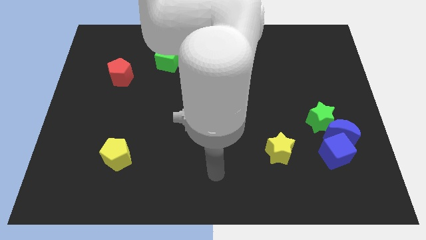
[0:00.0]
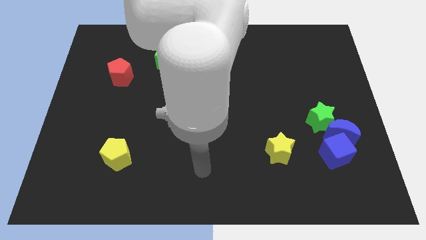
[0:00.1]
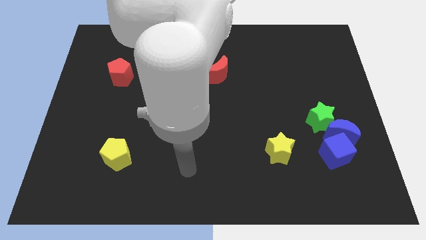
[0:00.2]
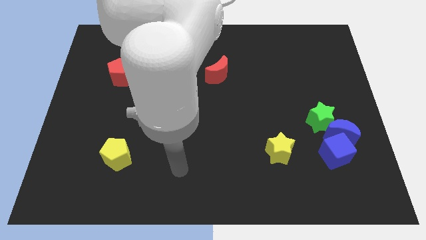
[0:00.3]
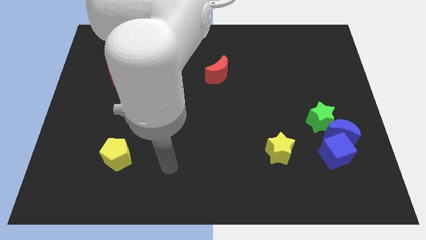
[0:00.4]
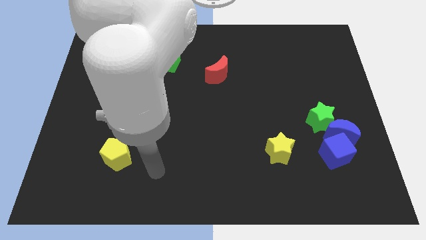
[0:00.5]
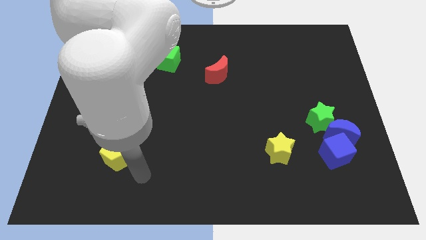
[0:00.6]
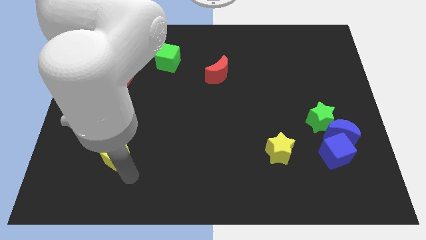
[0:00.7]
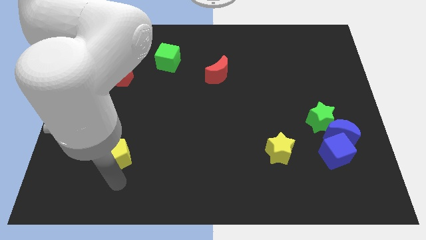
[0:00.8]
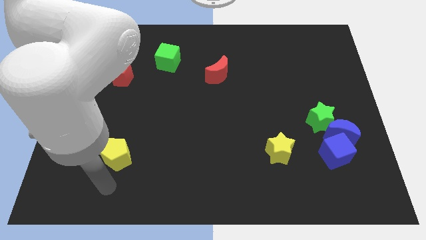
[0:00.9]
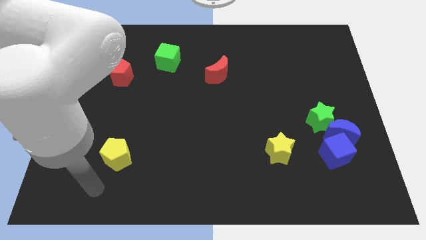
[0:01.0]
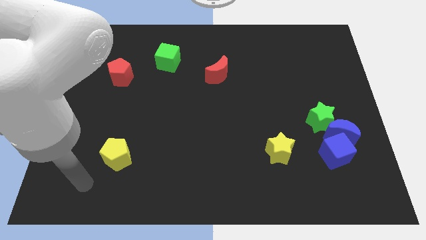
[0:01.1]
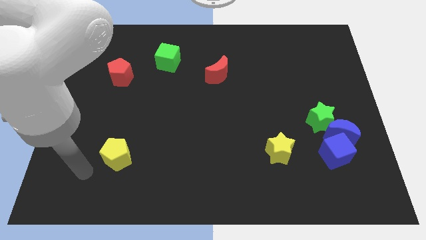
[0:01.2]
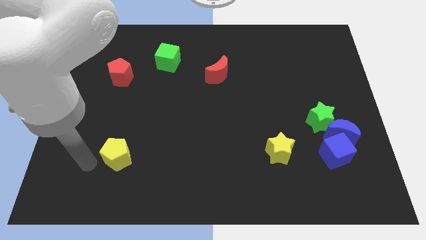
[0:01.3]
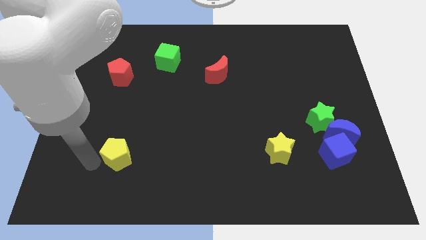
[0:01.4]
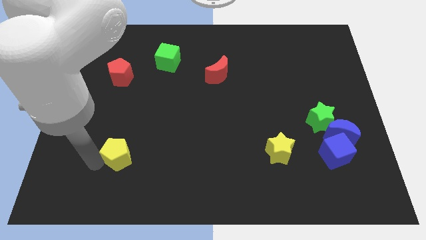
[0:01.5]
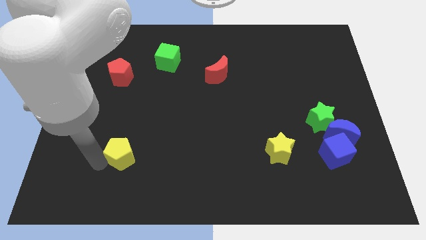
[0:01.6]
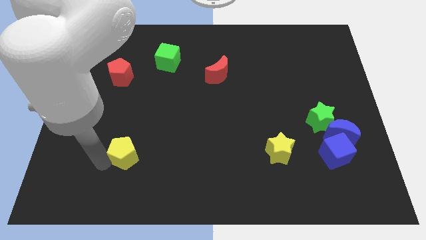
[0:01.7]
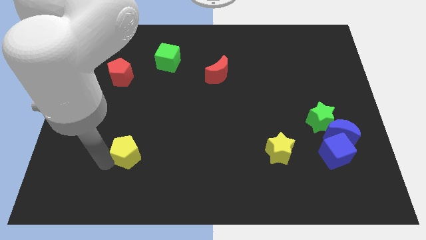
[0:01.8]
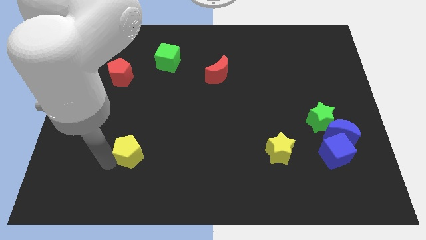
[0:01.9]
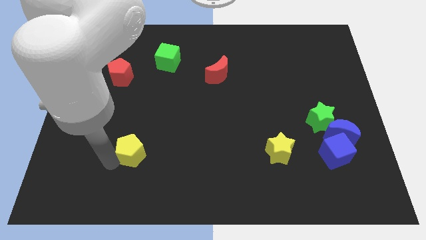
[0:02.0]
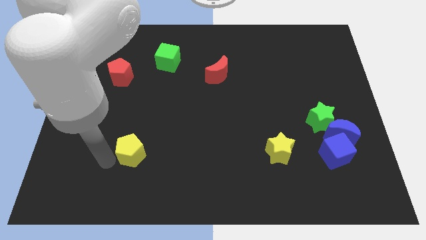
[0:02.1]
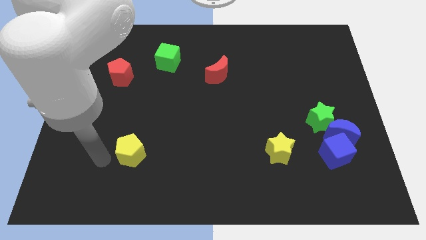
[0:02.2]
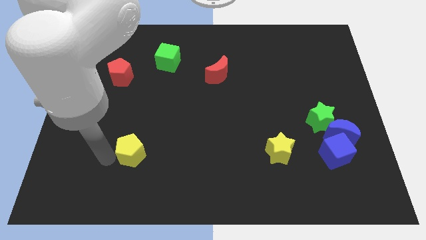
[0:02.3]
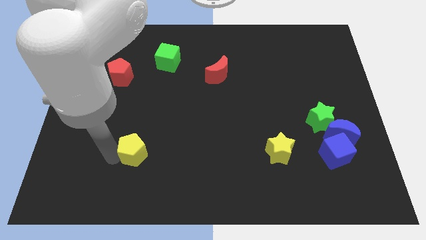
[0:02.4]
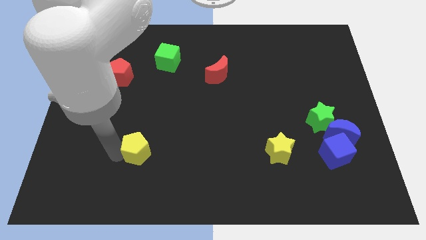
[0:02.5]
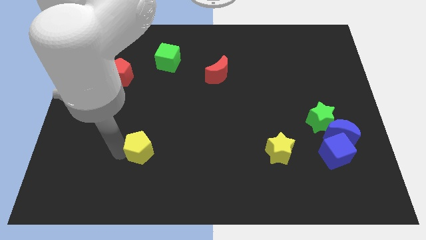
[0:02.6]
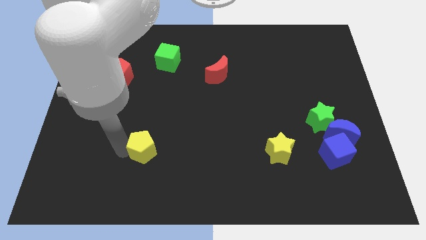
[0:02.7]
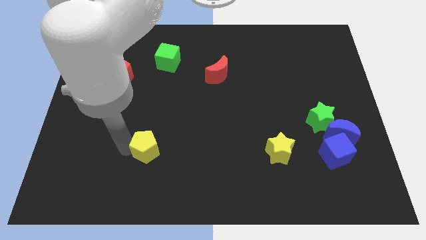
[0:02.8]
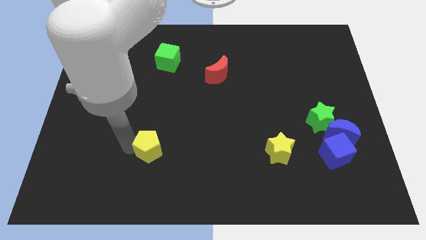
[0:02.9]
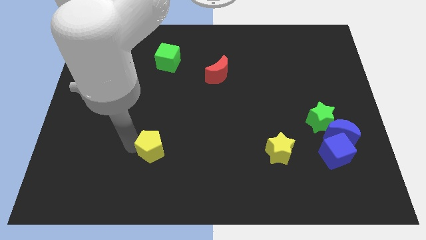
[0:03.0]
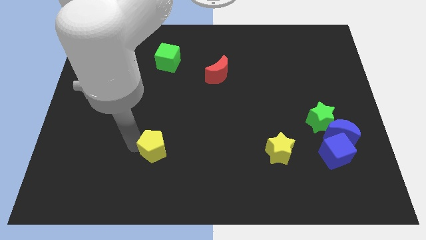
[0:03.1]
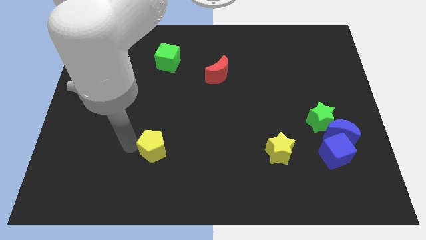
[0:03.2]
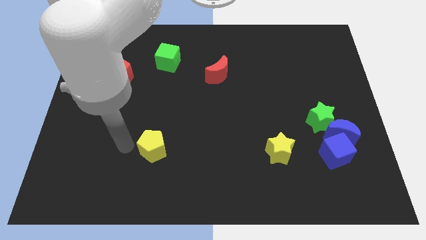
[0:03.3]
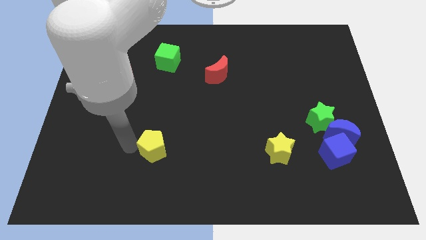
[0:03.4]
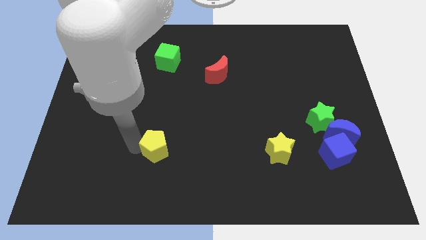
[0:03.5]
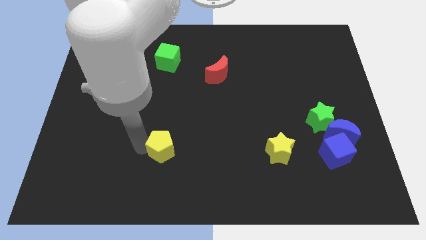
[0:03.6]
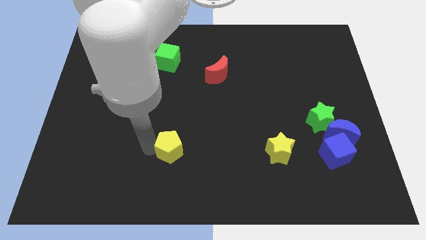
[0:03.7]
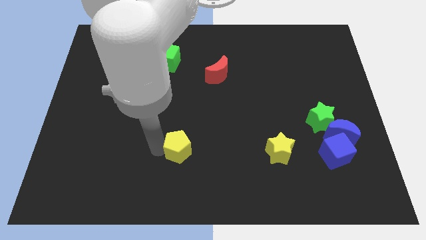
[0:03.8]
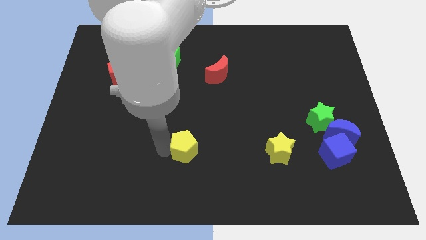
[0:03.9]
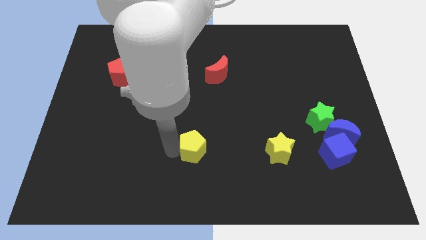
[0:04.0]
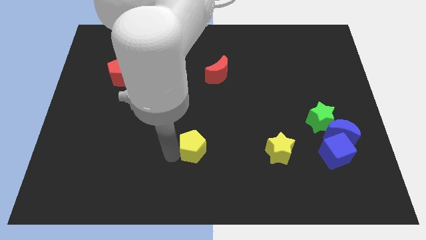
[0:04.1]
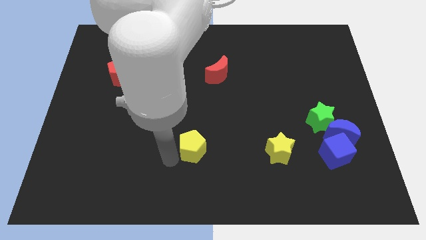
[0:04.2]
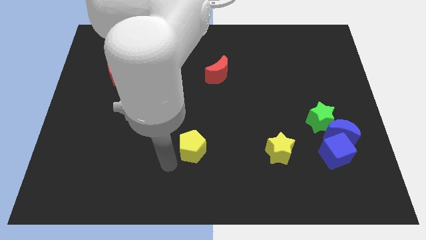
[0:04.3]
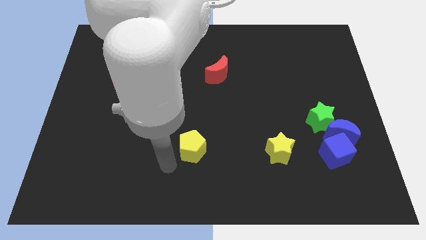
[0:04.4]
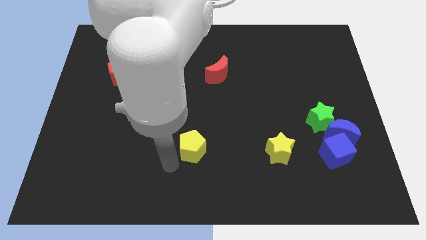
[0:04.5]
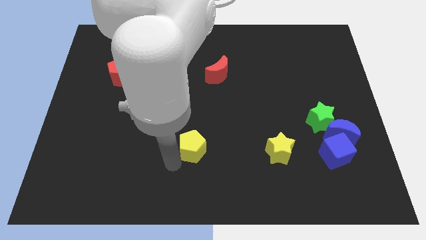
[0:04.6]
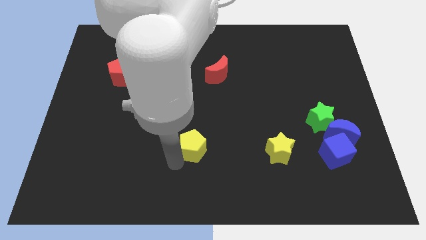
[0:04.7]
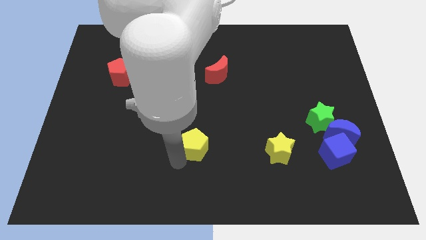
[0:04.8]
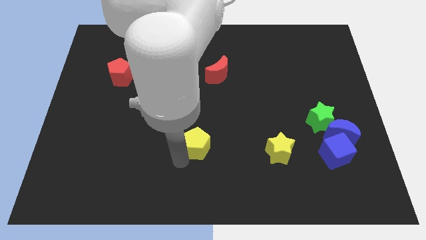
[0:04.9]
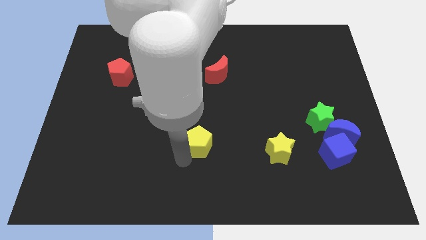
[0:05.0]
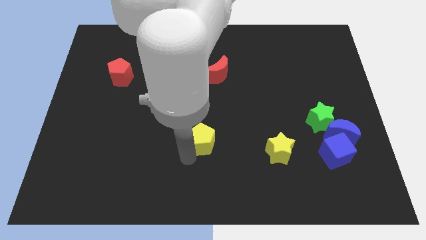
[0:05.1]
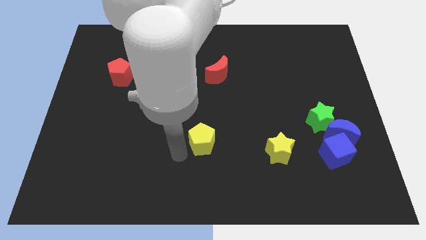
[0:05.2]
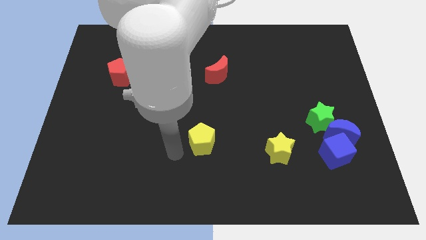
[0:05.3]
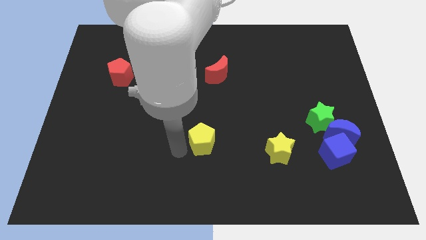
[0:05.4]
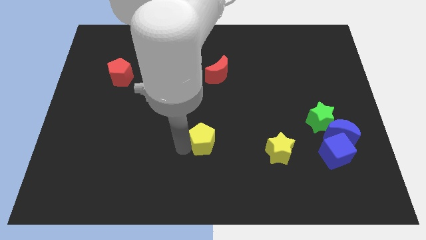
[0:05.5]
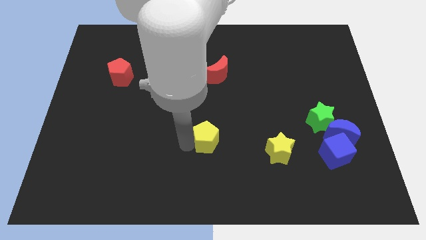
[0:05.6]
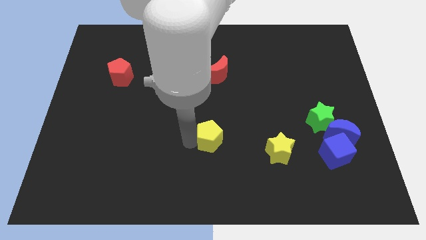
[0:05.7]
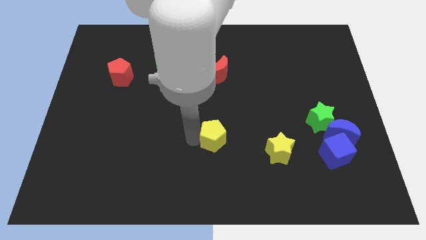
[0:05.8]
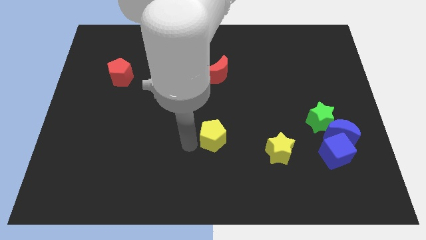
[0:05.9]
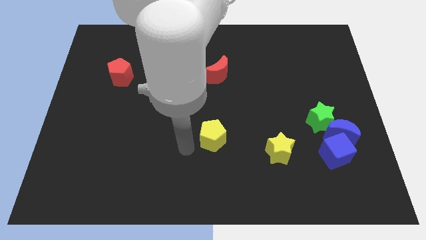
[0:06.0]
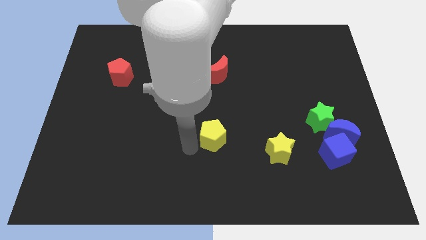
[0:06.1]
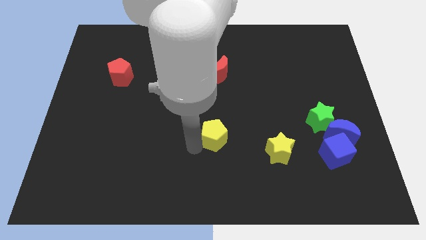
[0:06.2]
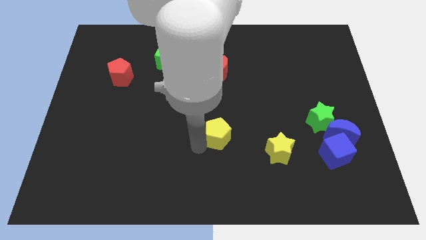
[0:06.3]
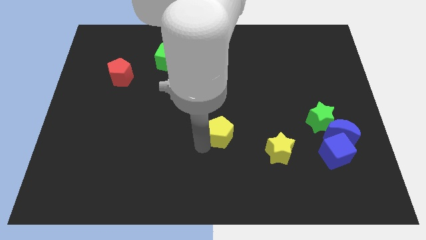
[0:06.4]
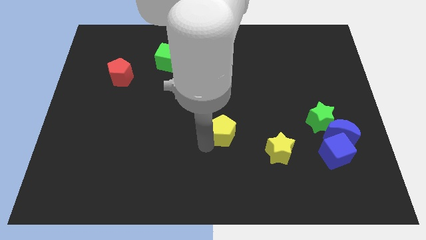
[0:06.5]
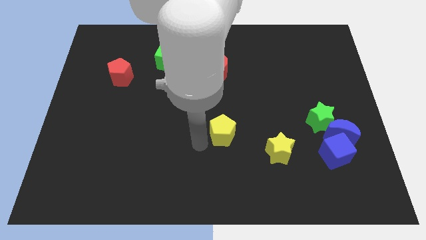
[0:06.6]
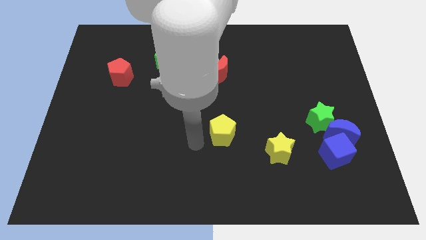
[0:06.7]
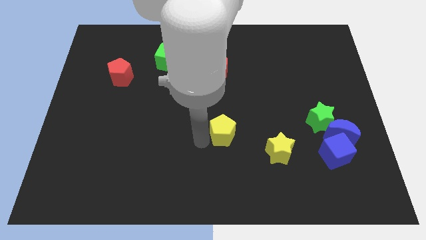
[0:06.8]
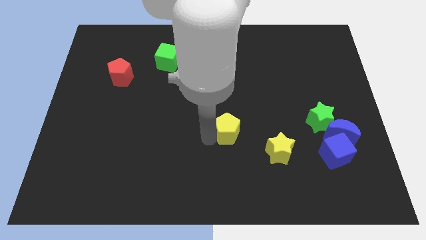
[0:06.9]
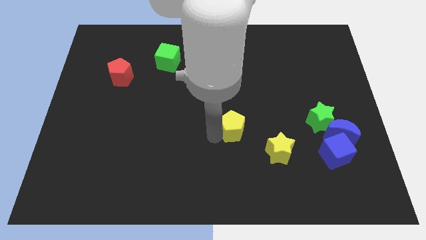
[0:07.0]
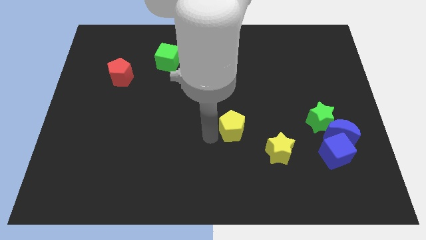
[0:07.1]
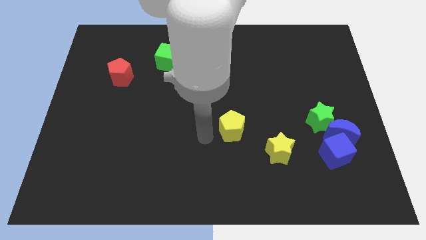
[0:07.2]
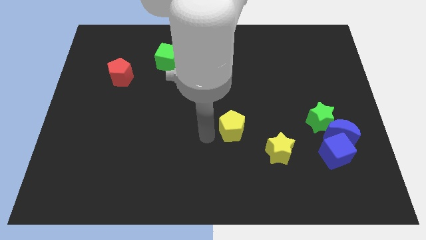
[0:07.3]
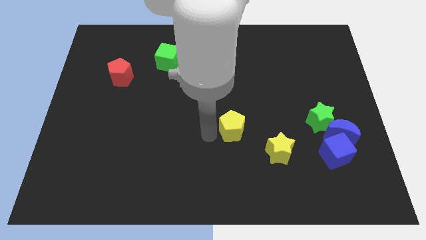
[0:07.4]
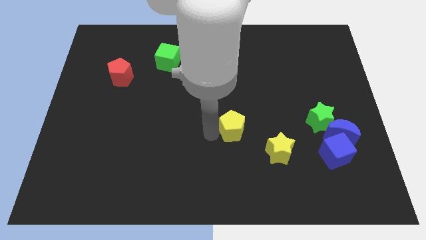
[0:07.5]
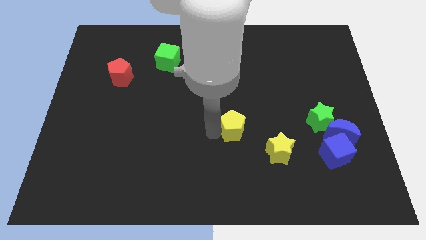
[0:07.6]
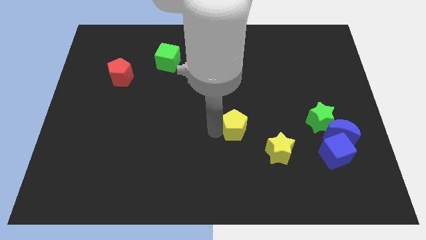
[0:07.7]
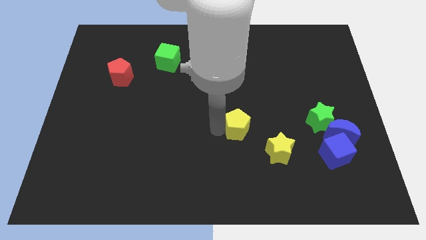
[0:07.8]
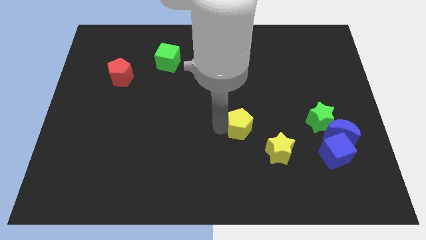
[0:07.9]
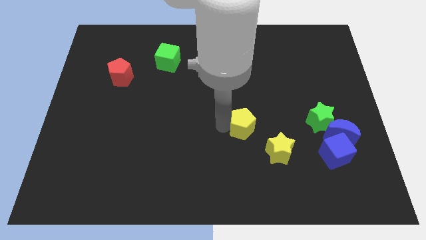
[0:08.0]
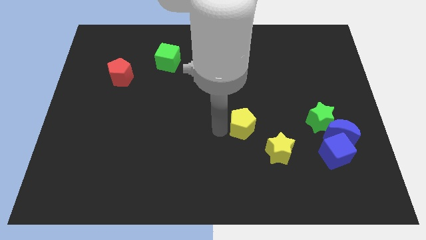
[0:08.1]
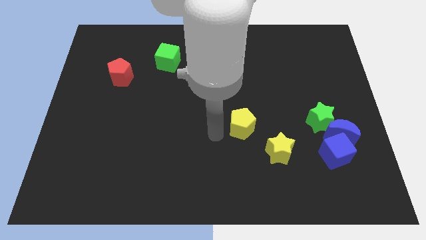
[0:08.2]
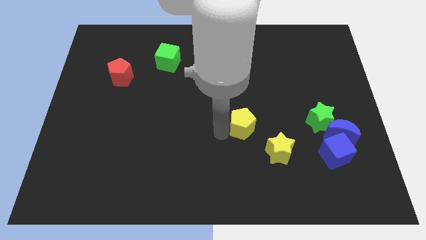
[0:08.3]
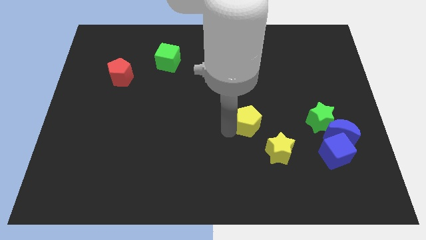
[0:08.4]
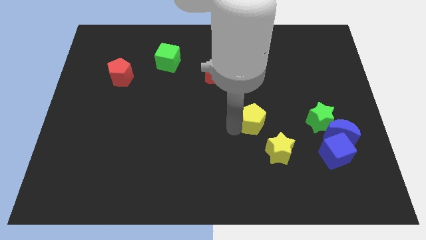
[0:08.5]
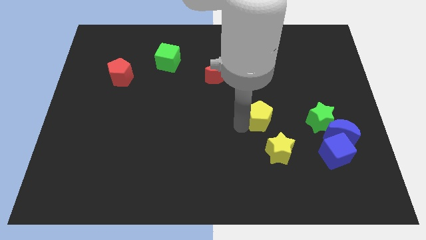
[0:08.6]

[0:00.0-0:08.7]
slide the yellow pentagon to the top of the yellow star
